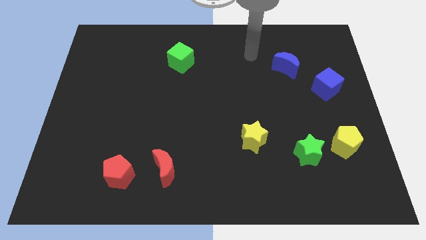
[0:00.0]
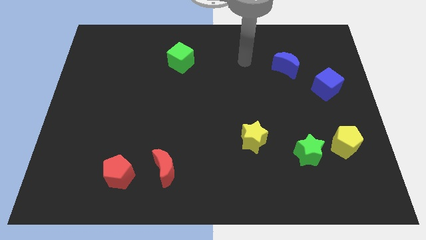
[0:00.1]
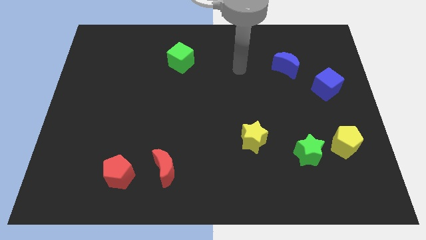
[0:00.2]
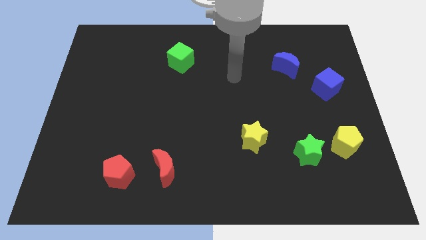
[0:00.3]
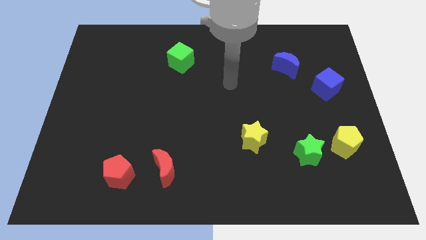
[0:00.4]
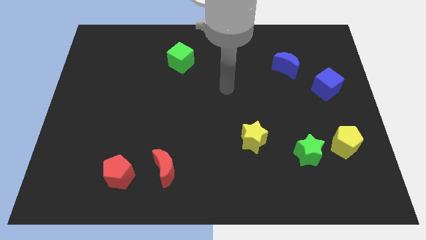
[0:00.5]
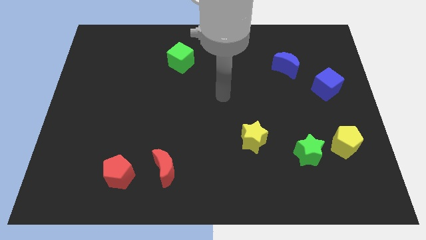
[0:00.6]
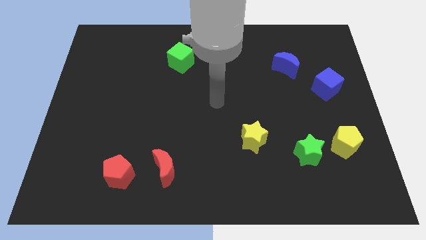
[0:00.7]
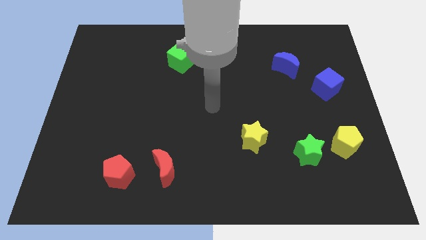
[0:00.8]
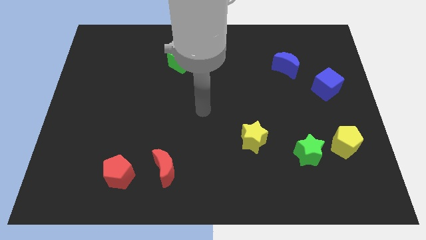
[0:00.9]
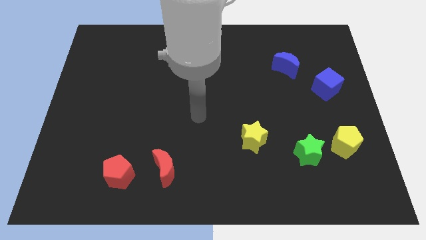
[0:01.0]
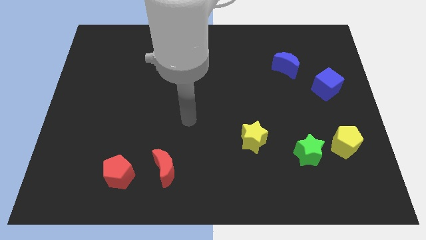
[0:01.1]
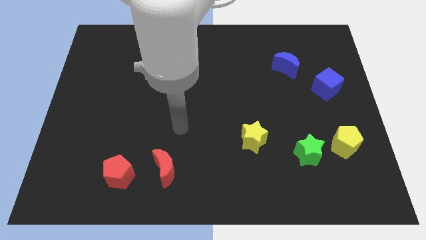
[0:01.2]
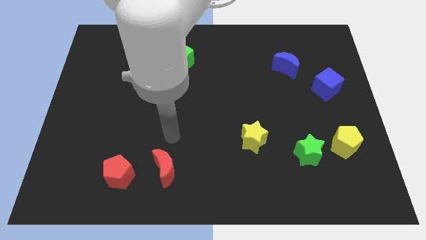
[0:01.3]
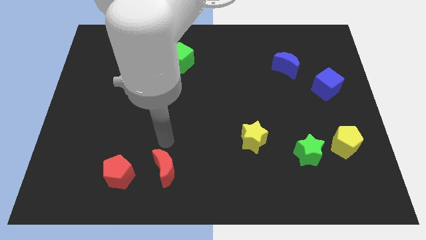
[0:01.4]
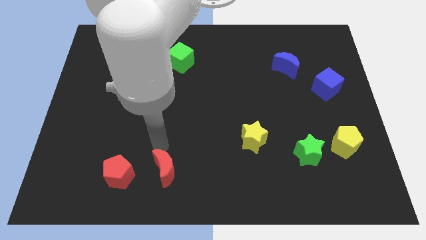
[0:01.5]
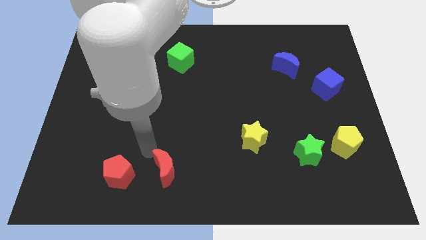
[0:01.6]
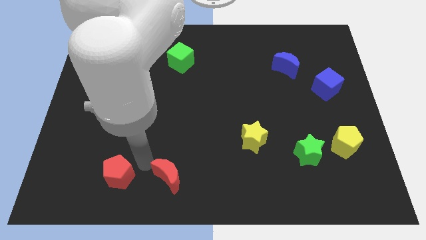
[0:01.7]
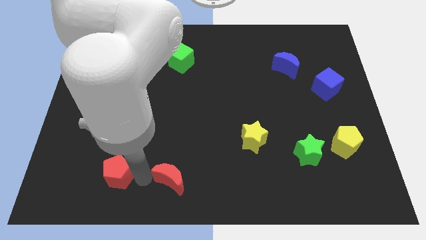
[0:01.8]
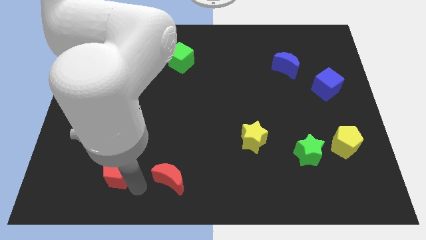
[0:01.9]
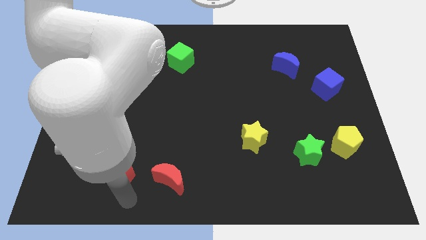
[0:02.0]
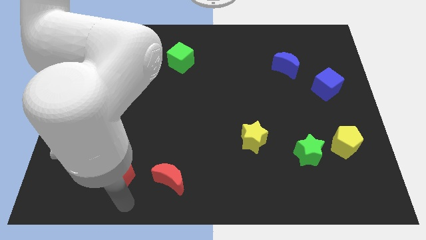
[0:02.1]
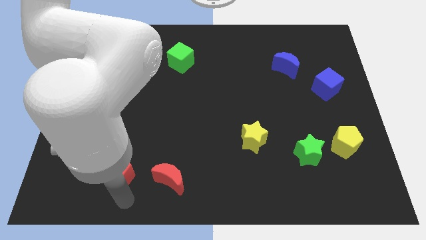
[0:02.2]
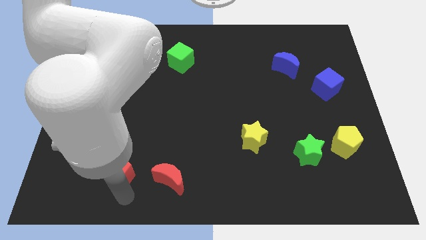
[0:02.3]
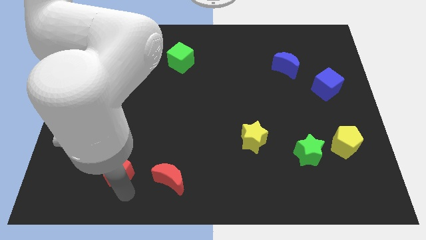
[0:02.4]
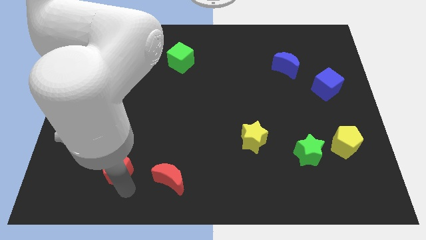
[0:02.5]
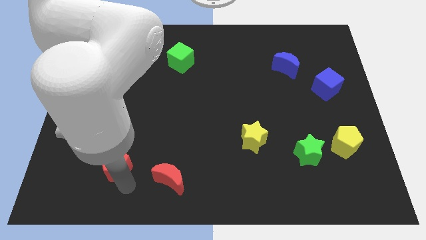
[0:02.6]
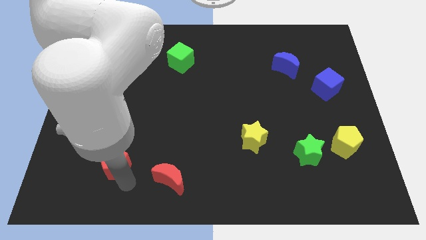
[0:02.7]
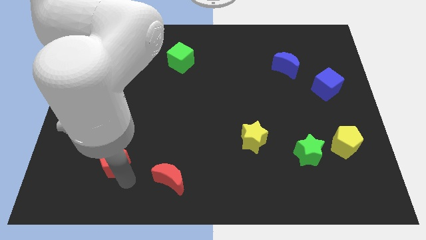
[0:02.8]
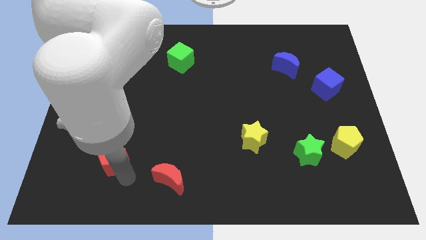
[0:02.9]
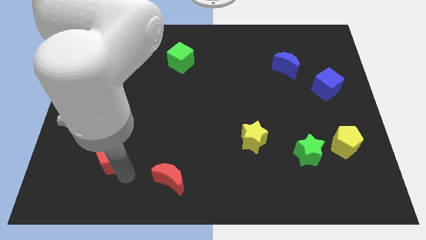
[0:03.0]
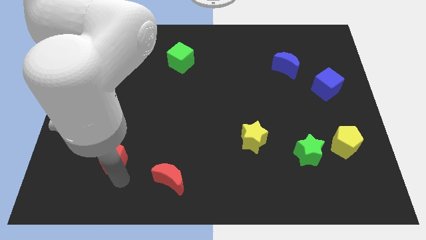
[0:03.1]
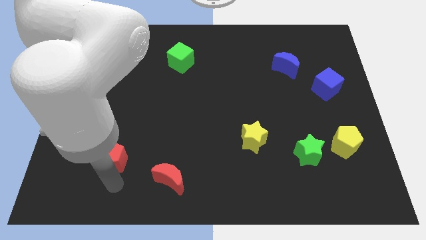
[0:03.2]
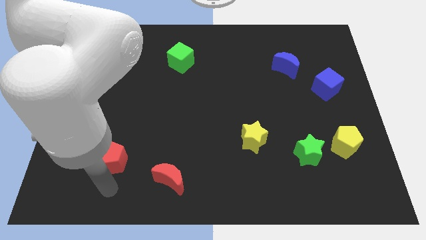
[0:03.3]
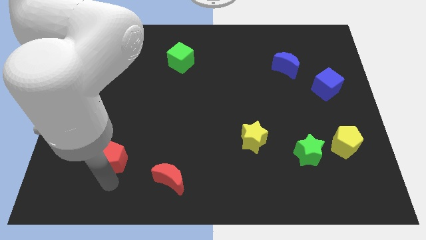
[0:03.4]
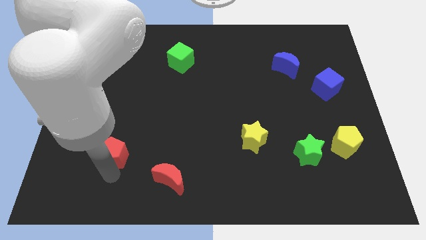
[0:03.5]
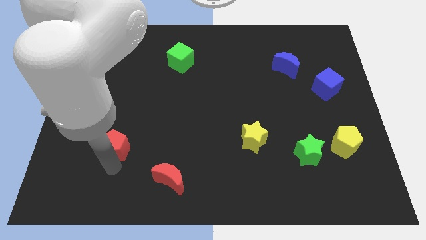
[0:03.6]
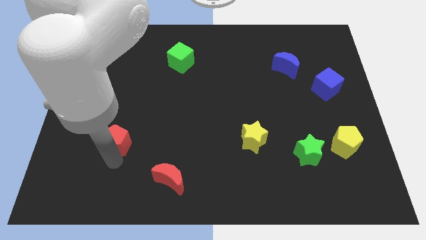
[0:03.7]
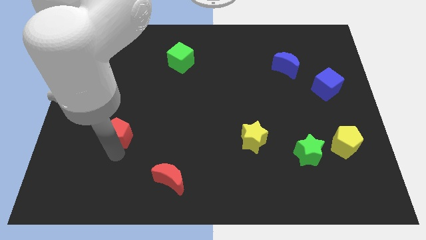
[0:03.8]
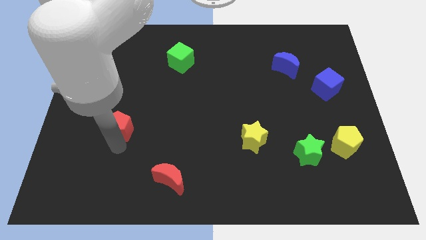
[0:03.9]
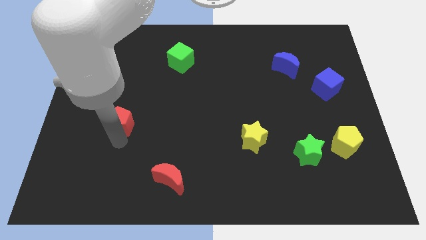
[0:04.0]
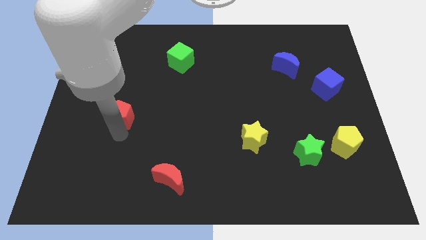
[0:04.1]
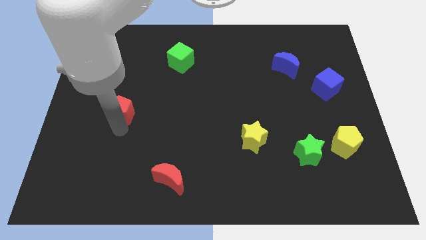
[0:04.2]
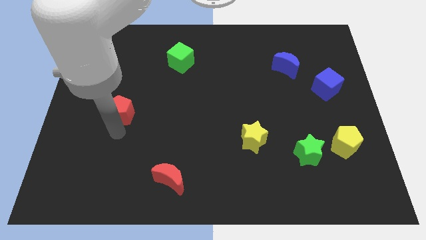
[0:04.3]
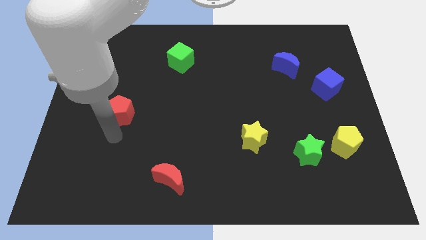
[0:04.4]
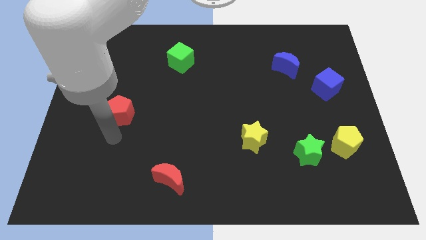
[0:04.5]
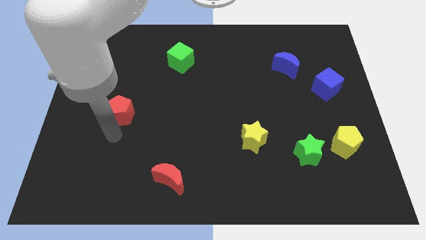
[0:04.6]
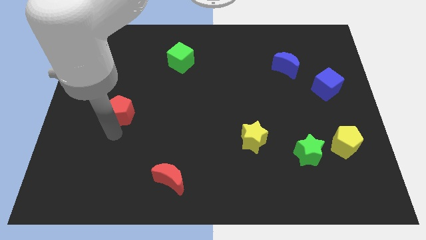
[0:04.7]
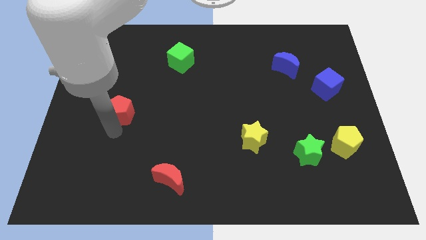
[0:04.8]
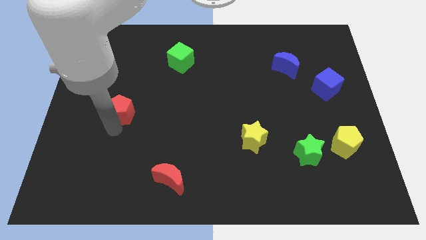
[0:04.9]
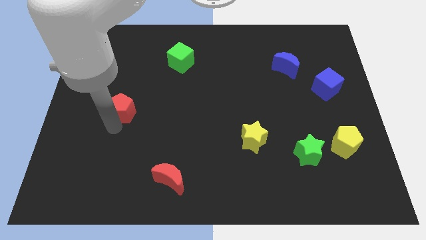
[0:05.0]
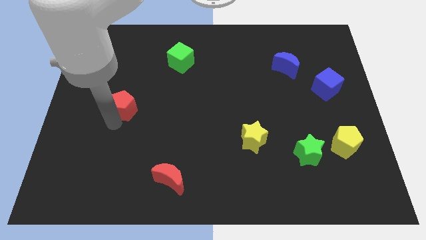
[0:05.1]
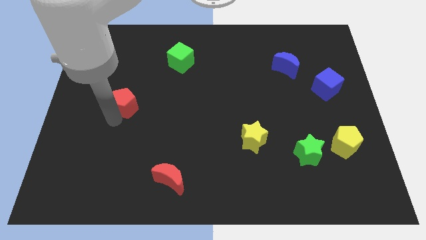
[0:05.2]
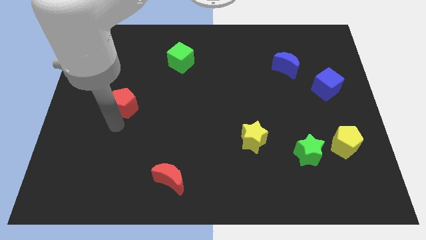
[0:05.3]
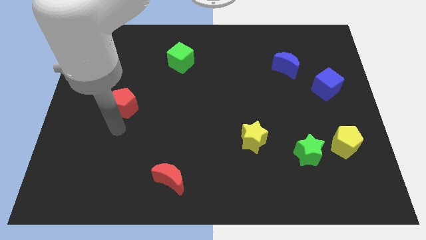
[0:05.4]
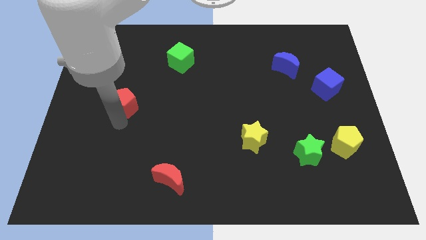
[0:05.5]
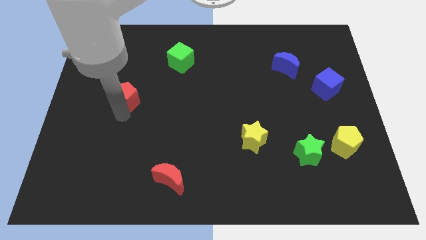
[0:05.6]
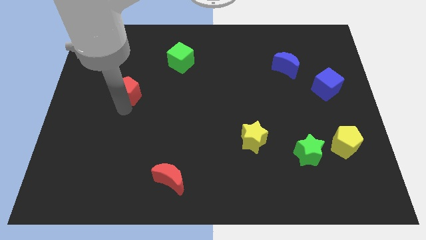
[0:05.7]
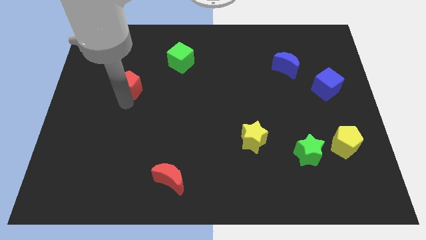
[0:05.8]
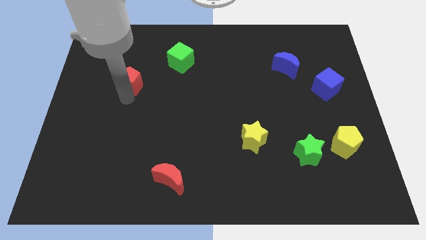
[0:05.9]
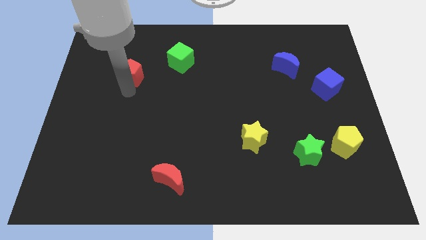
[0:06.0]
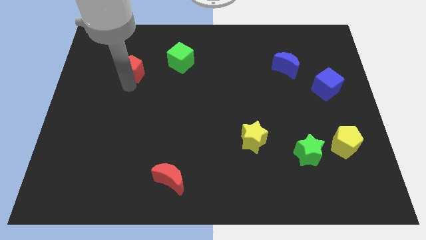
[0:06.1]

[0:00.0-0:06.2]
put the red pentagon left of the green cube

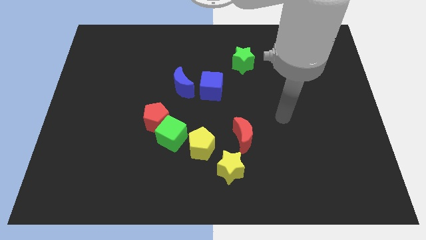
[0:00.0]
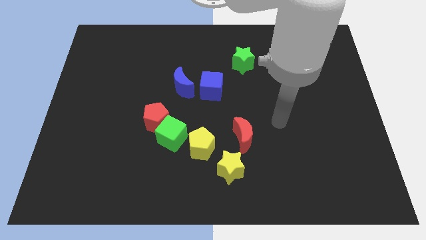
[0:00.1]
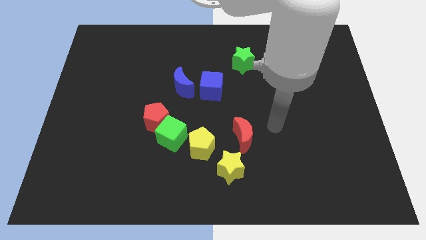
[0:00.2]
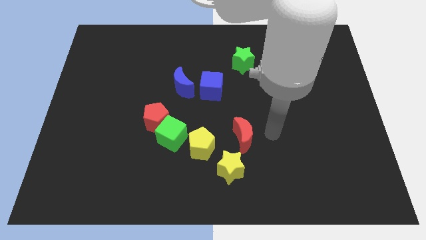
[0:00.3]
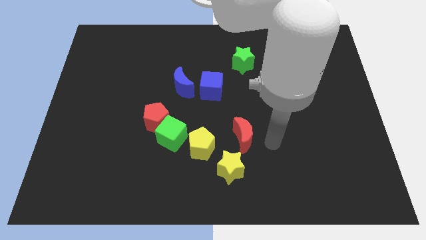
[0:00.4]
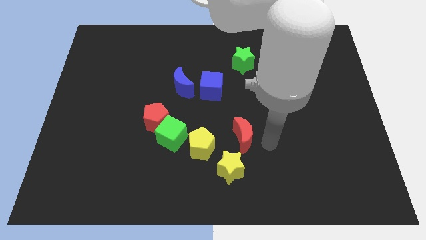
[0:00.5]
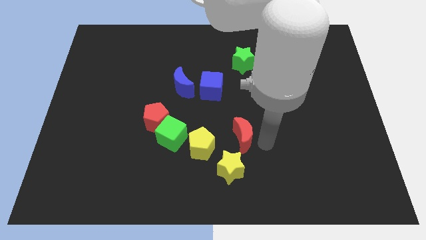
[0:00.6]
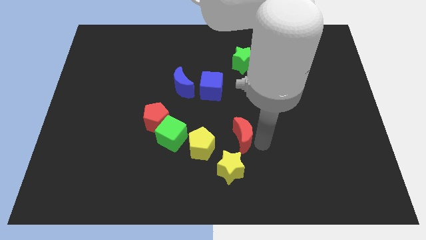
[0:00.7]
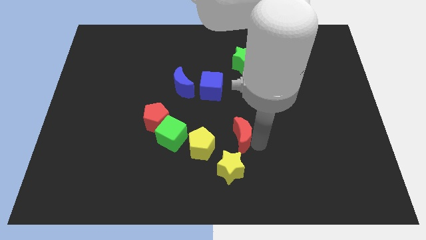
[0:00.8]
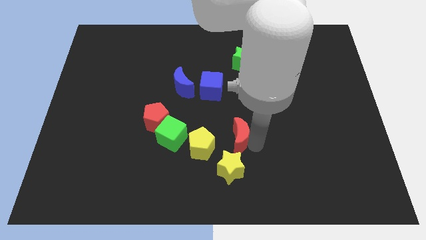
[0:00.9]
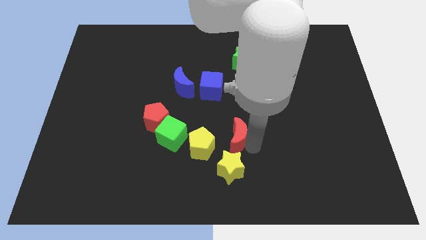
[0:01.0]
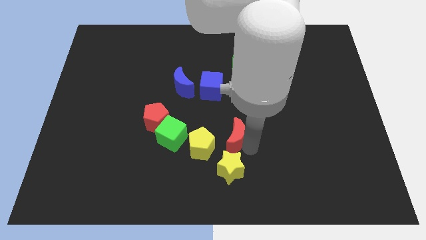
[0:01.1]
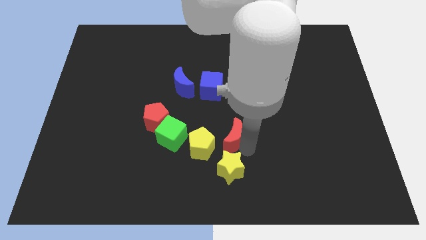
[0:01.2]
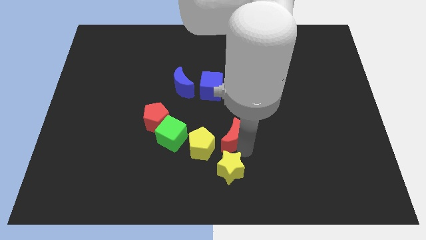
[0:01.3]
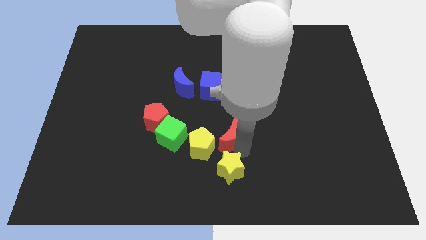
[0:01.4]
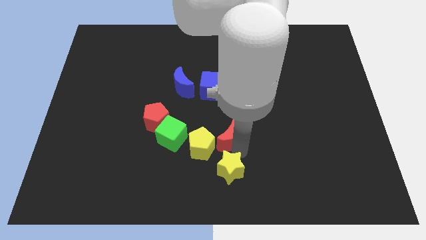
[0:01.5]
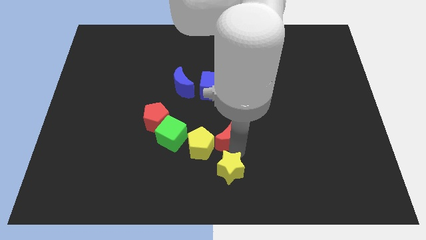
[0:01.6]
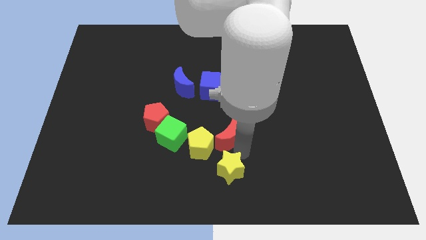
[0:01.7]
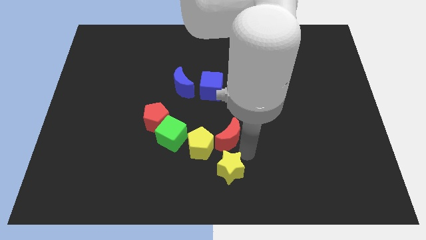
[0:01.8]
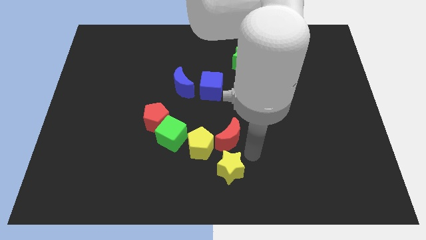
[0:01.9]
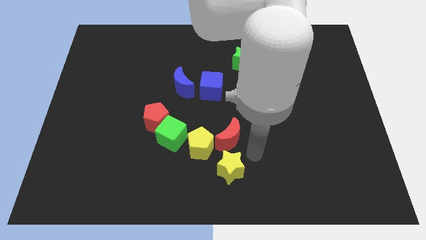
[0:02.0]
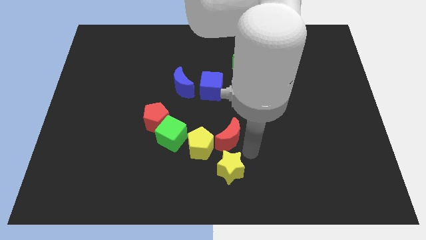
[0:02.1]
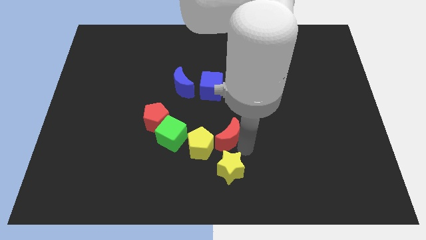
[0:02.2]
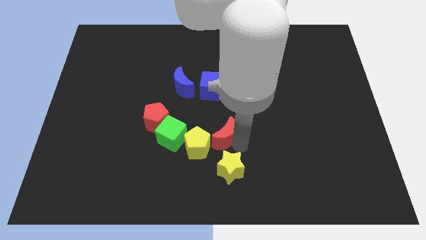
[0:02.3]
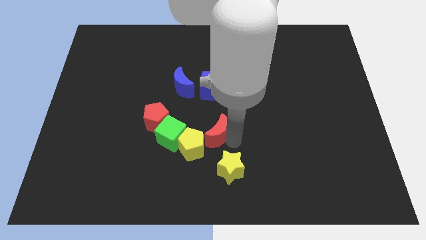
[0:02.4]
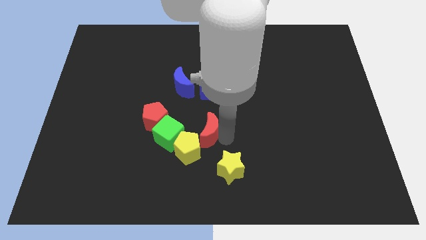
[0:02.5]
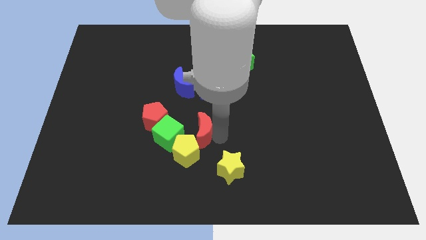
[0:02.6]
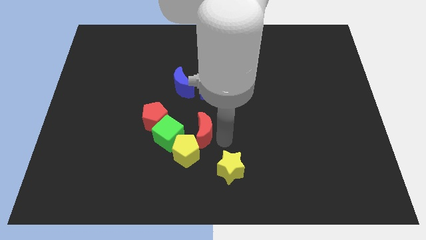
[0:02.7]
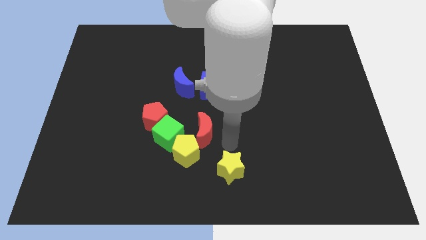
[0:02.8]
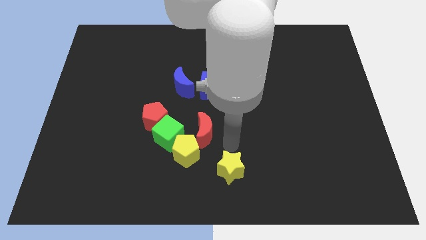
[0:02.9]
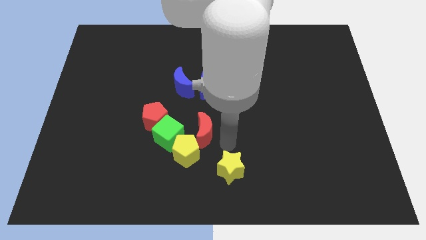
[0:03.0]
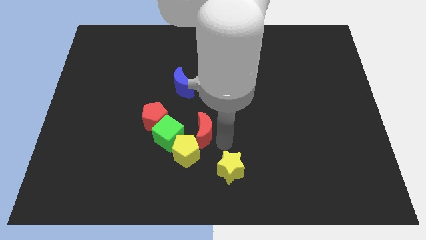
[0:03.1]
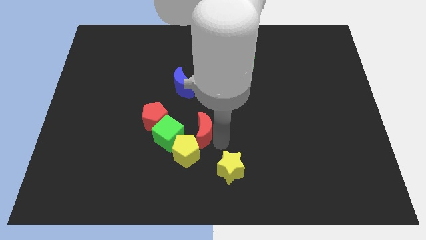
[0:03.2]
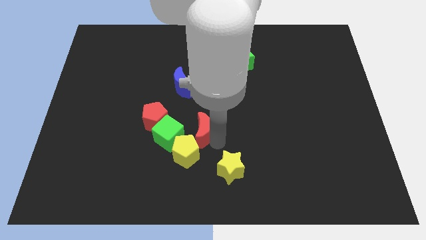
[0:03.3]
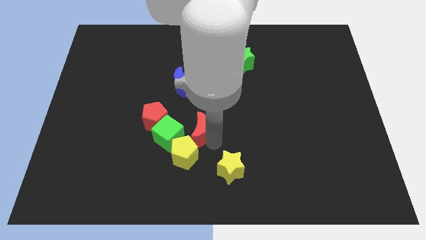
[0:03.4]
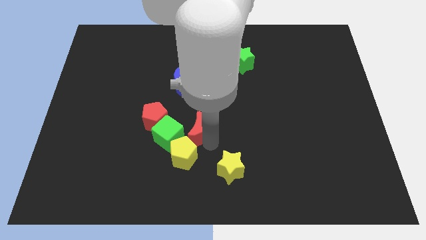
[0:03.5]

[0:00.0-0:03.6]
move the red moon to the bottom side of the blue moon
